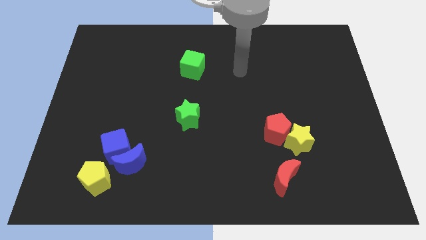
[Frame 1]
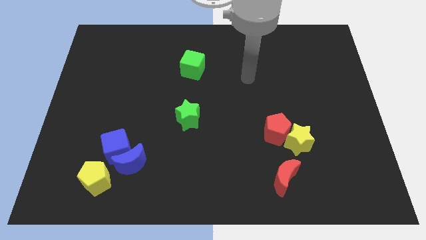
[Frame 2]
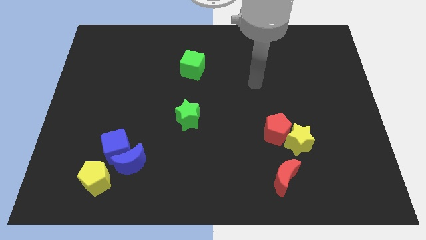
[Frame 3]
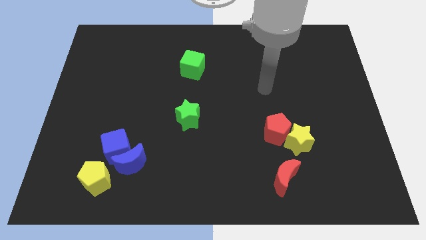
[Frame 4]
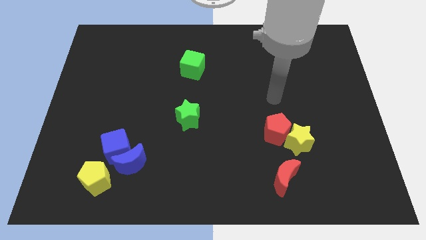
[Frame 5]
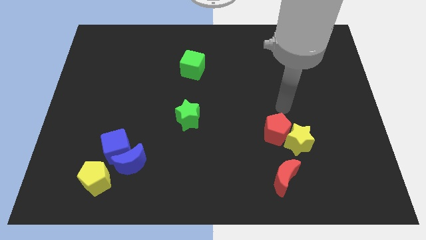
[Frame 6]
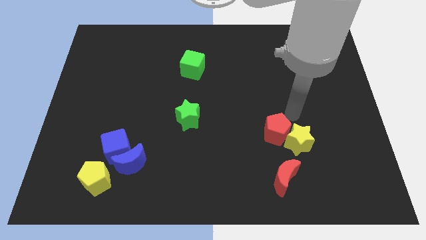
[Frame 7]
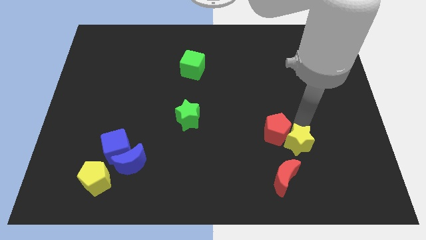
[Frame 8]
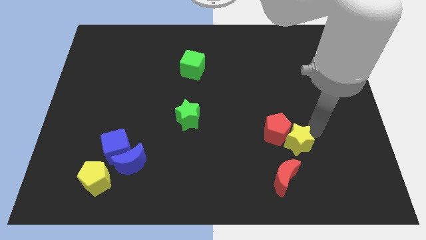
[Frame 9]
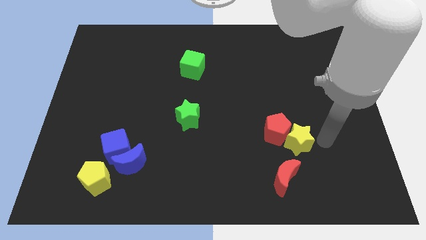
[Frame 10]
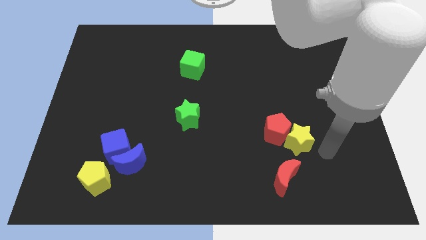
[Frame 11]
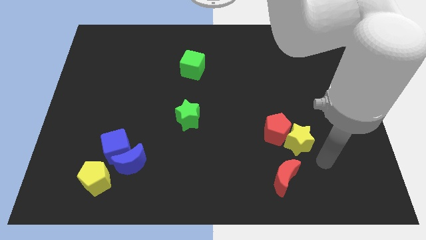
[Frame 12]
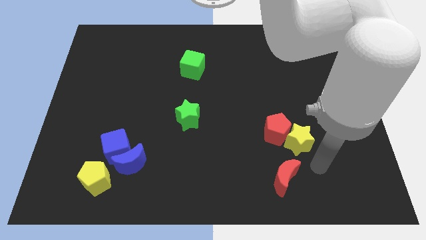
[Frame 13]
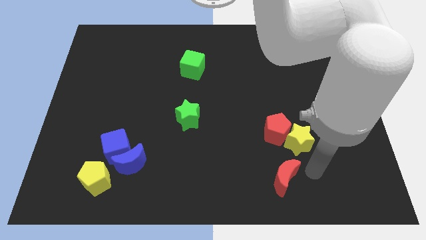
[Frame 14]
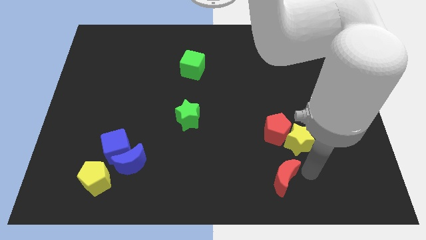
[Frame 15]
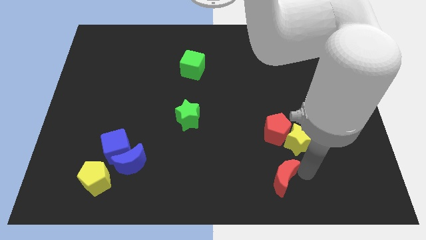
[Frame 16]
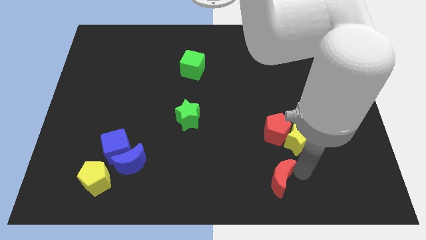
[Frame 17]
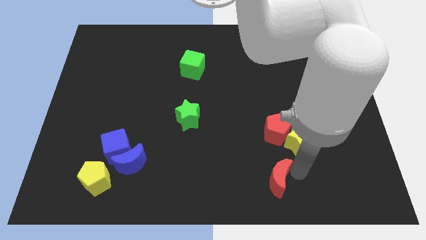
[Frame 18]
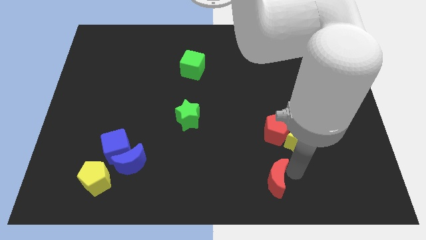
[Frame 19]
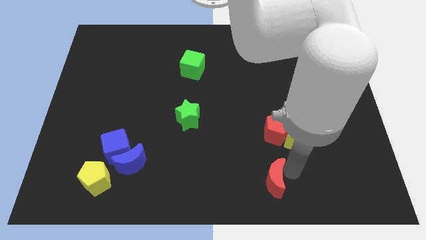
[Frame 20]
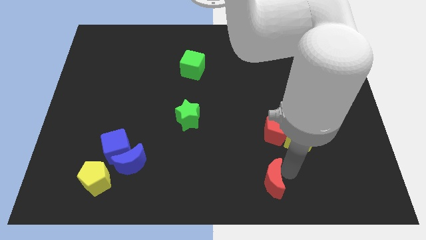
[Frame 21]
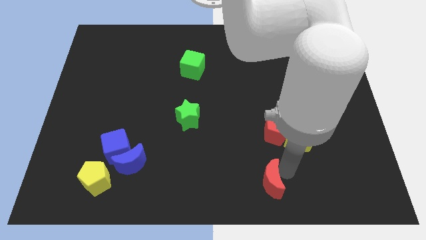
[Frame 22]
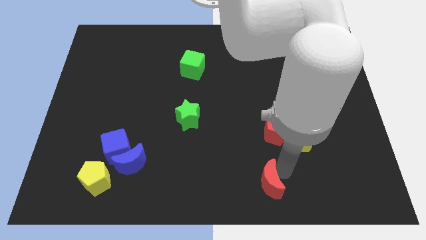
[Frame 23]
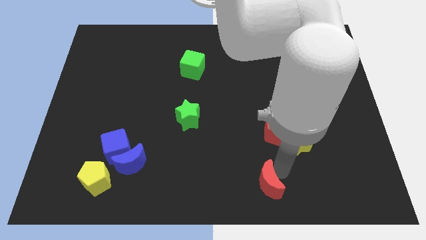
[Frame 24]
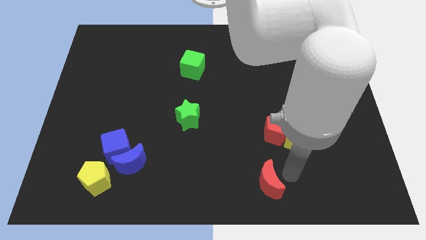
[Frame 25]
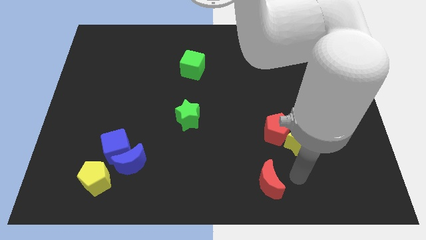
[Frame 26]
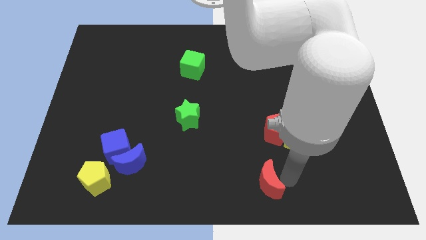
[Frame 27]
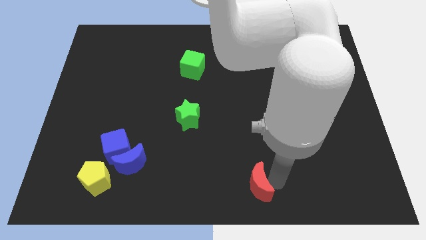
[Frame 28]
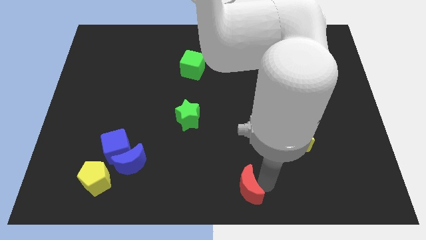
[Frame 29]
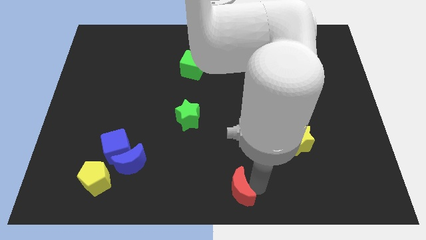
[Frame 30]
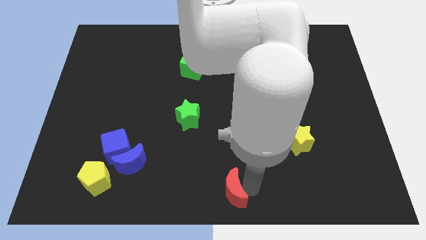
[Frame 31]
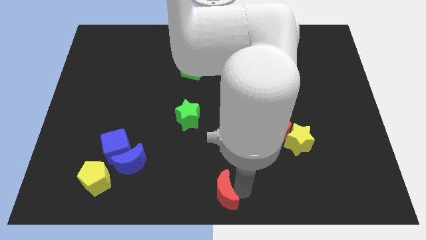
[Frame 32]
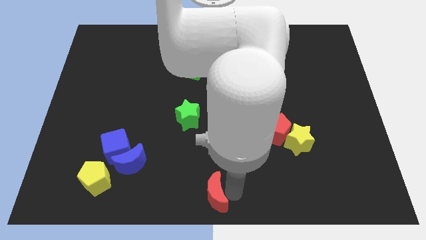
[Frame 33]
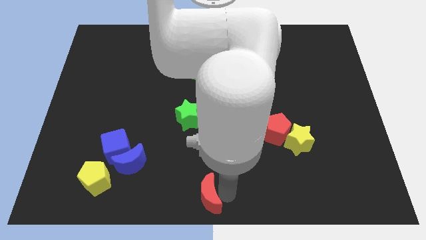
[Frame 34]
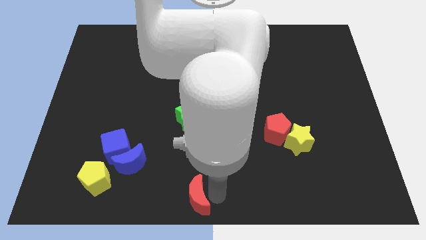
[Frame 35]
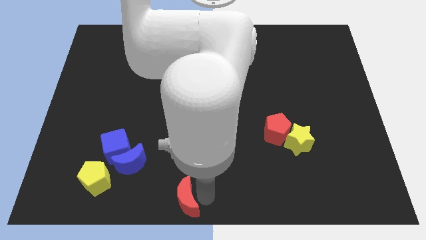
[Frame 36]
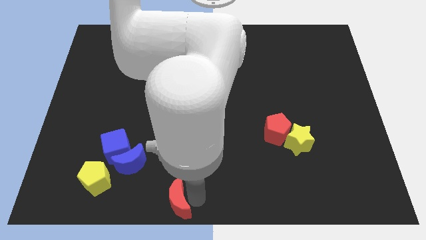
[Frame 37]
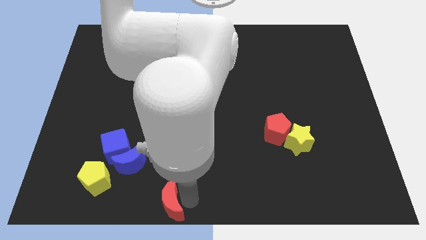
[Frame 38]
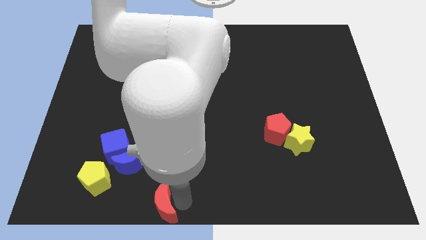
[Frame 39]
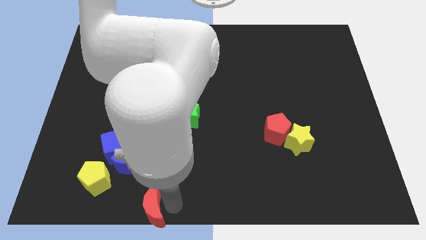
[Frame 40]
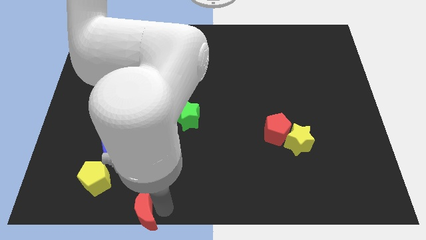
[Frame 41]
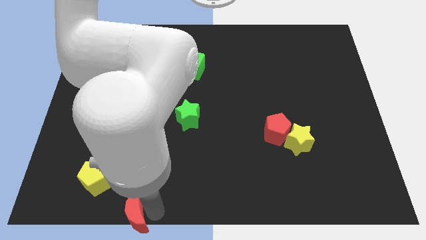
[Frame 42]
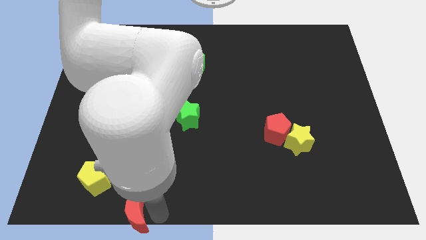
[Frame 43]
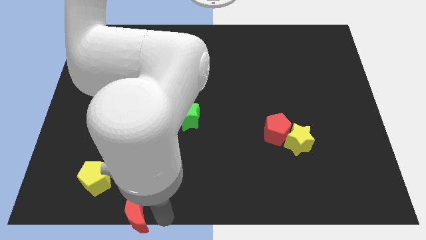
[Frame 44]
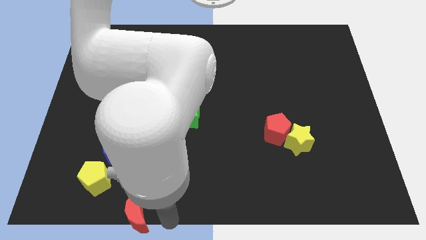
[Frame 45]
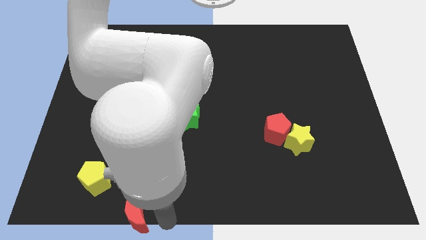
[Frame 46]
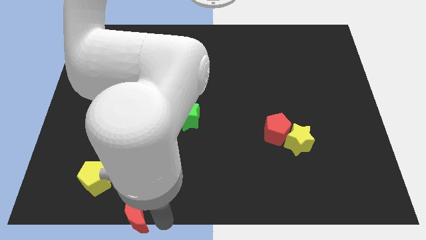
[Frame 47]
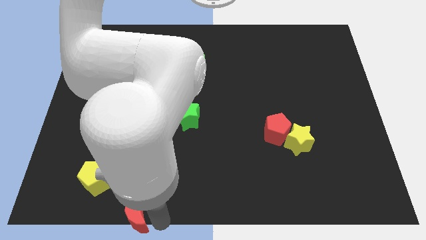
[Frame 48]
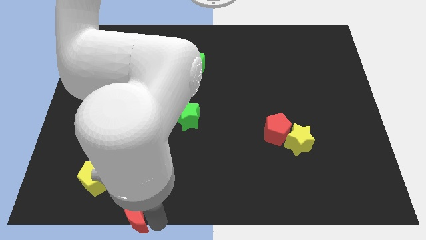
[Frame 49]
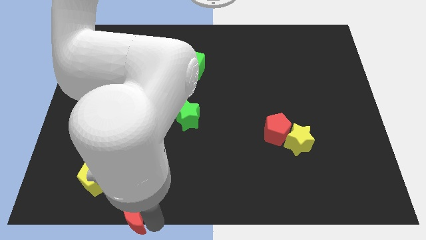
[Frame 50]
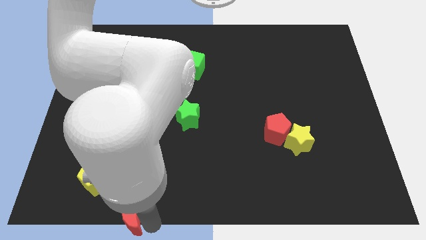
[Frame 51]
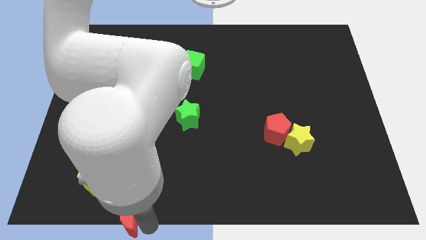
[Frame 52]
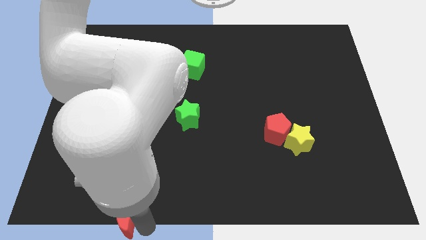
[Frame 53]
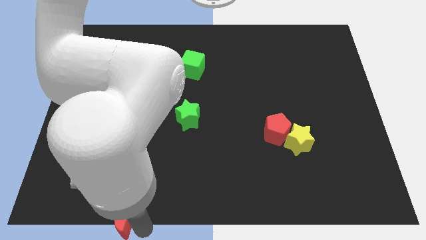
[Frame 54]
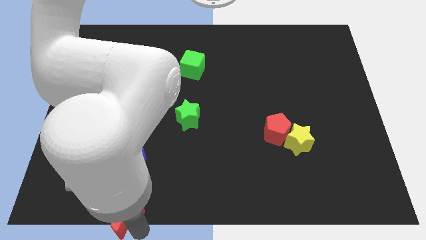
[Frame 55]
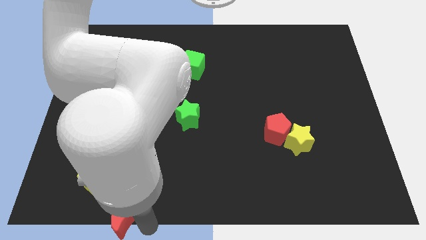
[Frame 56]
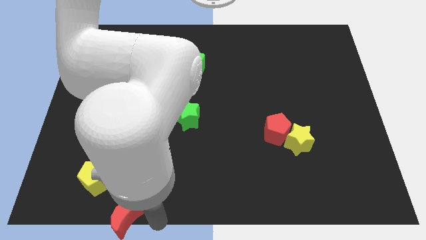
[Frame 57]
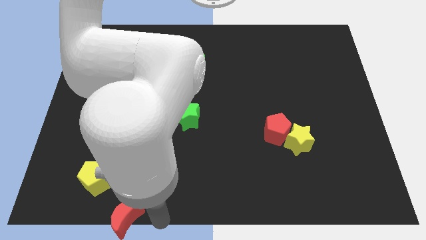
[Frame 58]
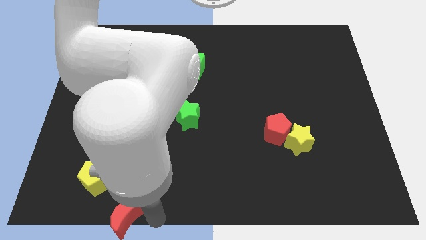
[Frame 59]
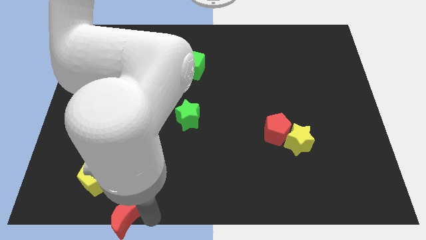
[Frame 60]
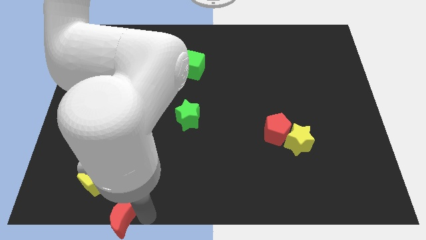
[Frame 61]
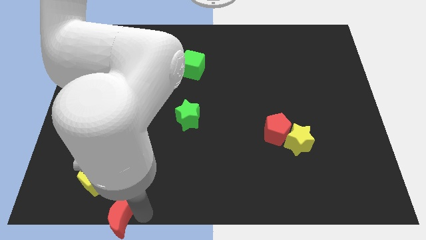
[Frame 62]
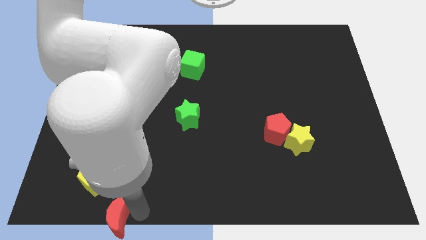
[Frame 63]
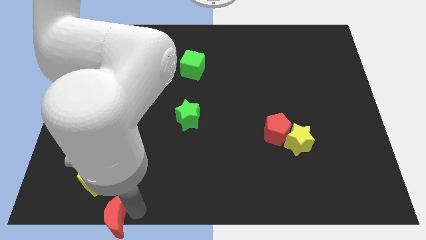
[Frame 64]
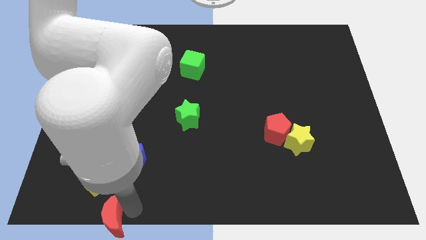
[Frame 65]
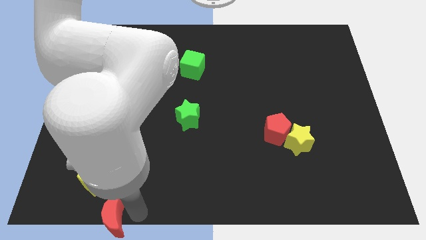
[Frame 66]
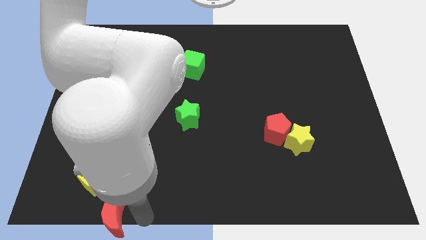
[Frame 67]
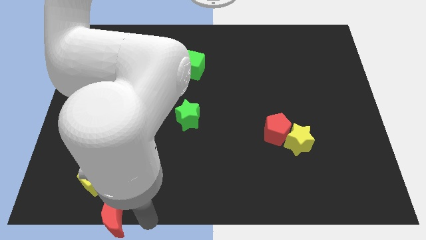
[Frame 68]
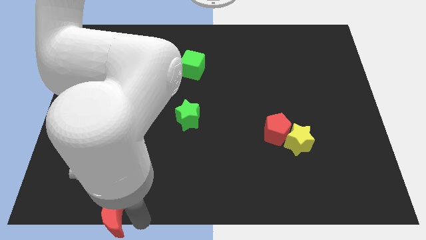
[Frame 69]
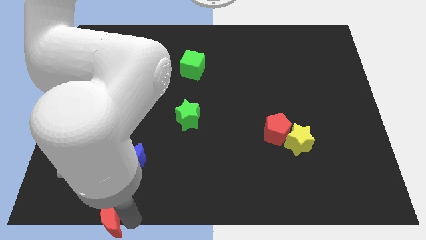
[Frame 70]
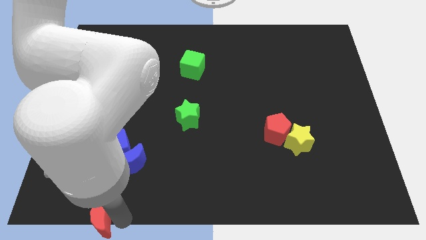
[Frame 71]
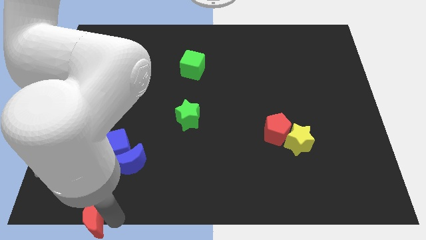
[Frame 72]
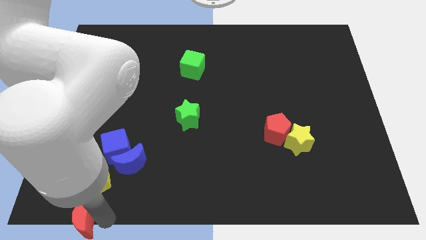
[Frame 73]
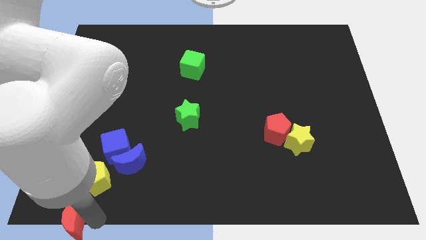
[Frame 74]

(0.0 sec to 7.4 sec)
move the red moon to the bottom left corner
